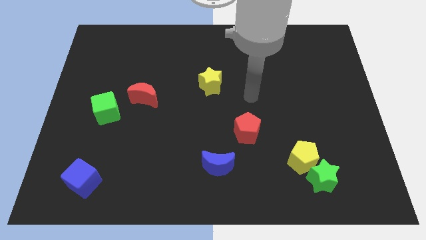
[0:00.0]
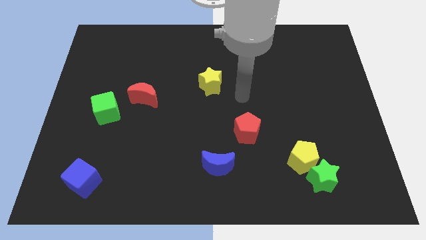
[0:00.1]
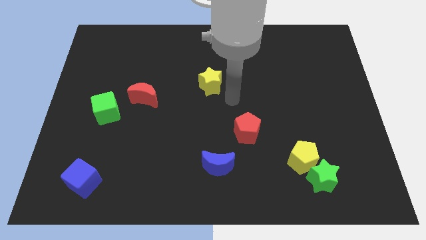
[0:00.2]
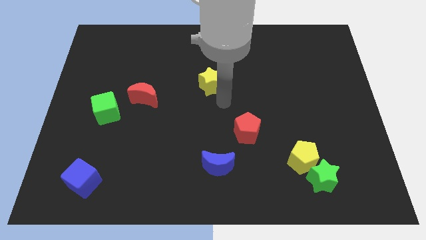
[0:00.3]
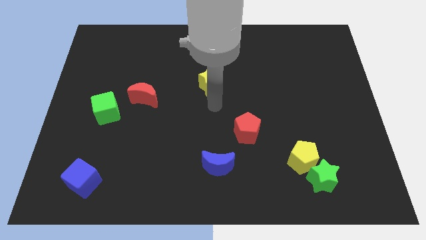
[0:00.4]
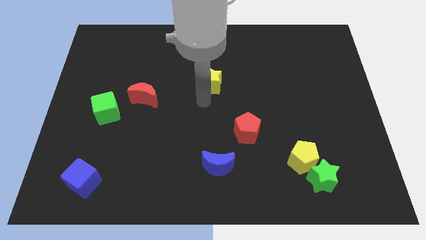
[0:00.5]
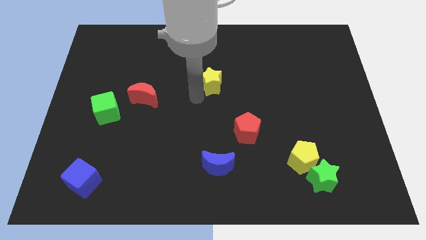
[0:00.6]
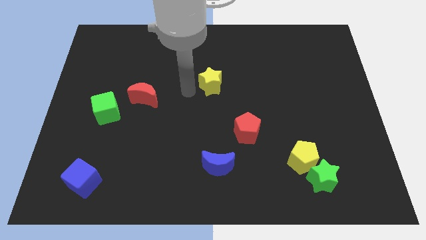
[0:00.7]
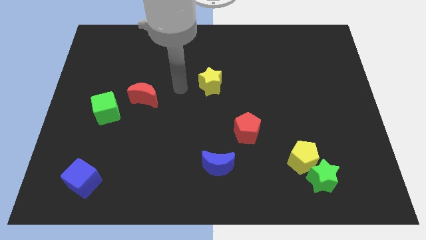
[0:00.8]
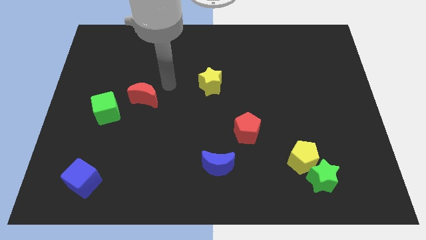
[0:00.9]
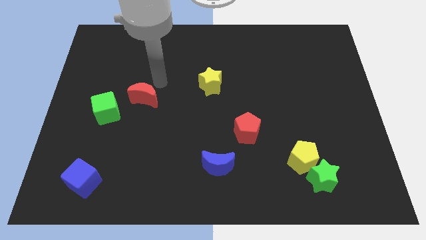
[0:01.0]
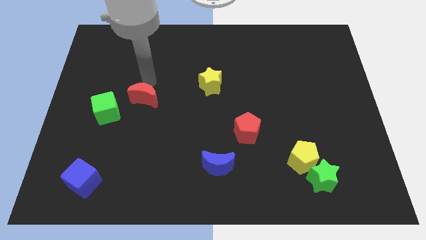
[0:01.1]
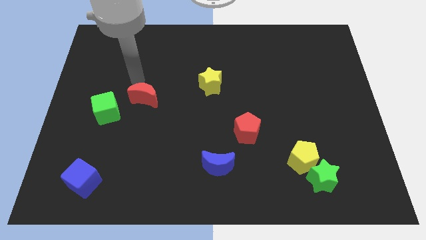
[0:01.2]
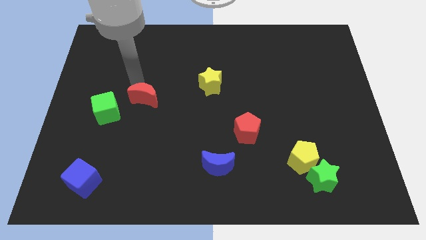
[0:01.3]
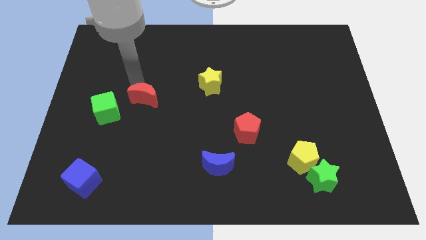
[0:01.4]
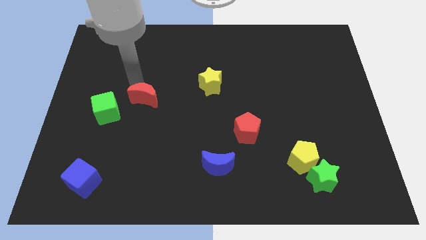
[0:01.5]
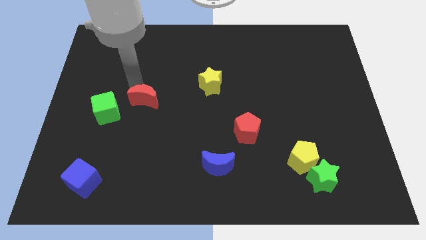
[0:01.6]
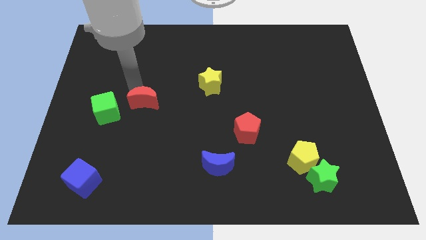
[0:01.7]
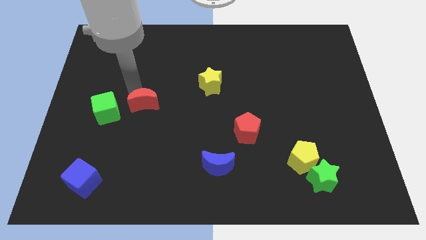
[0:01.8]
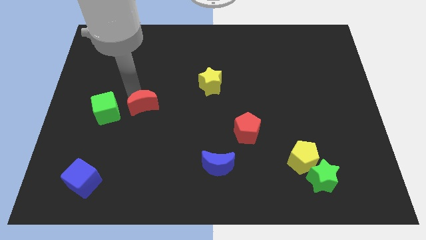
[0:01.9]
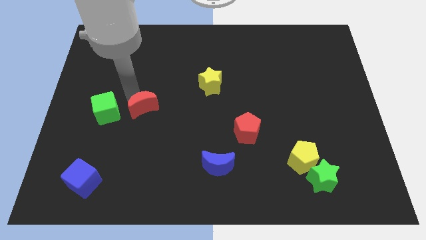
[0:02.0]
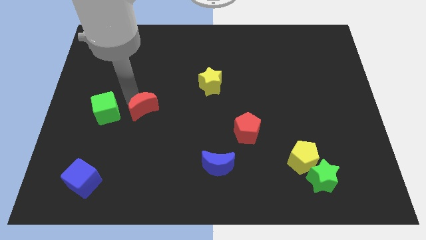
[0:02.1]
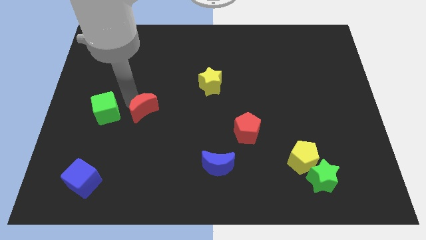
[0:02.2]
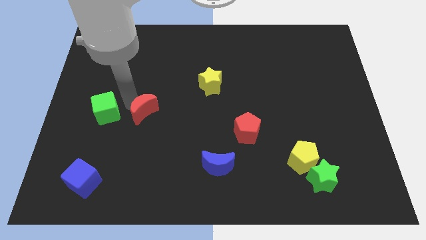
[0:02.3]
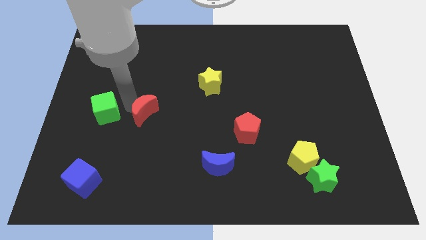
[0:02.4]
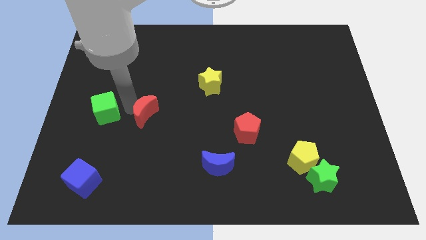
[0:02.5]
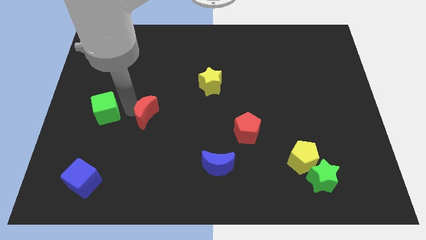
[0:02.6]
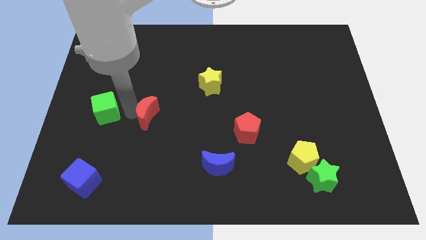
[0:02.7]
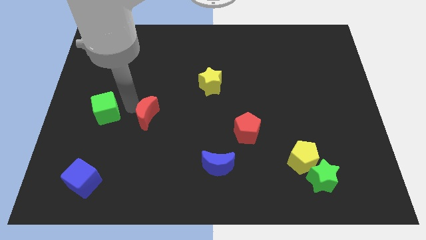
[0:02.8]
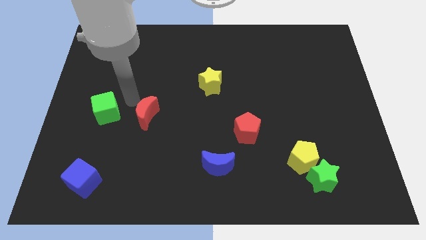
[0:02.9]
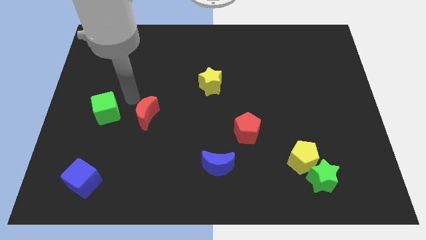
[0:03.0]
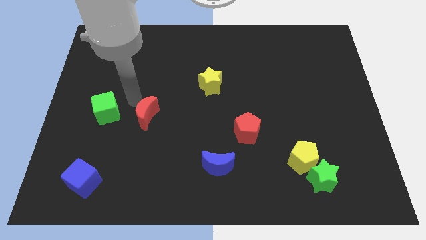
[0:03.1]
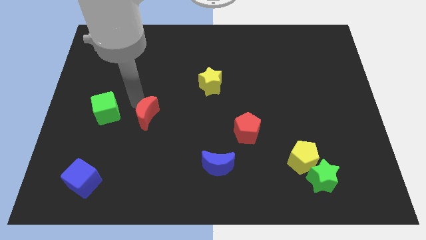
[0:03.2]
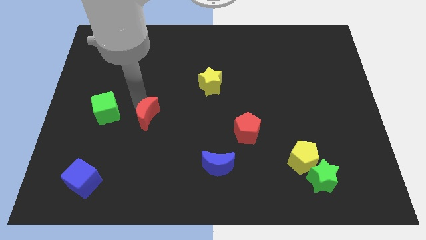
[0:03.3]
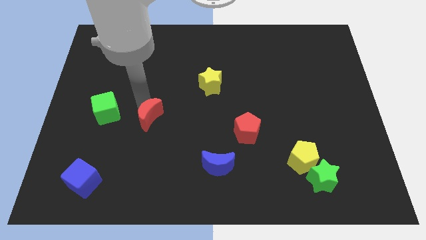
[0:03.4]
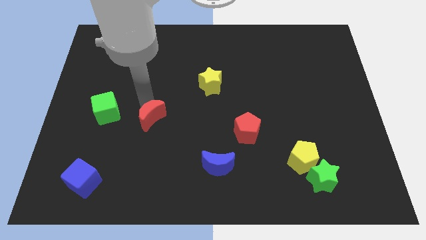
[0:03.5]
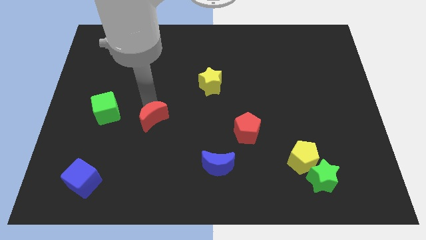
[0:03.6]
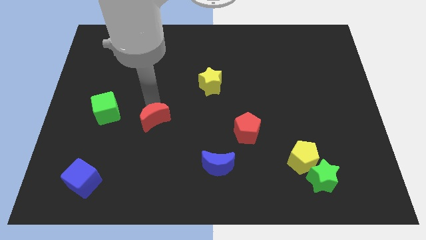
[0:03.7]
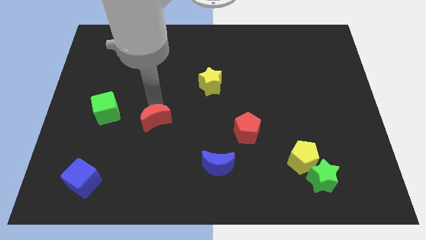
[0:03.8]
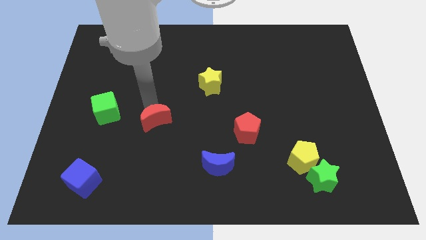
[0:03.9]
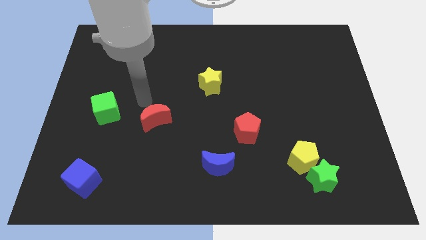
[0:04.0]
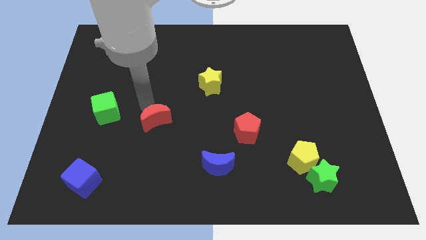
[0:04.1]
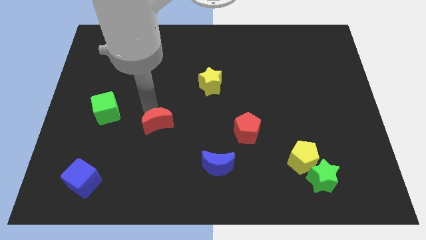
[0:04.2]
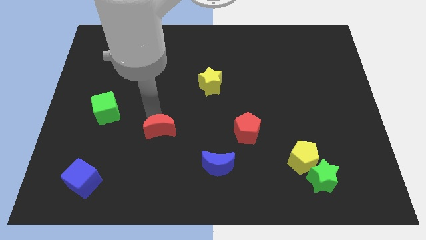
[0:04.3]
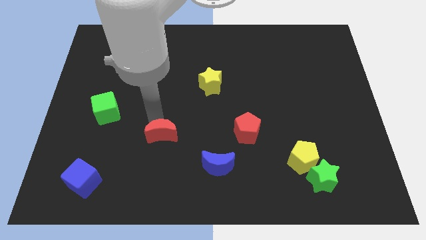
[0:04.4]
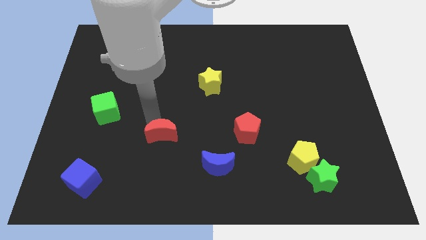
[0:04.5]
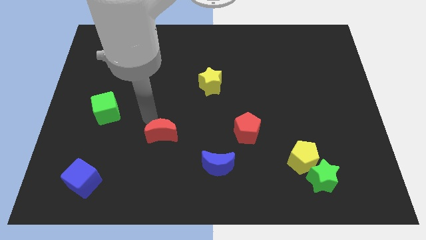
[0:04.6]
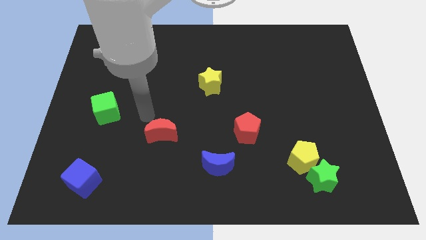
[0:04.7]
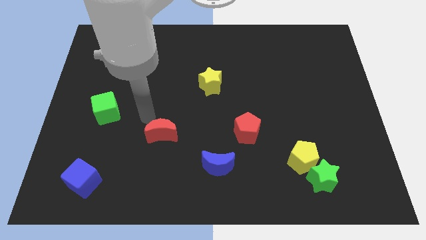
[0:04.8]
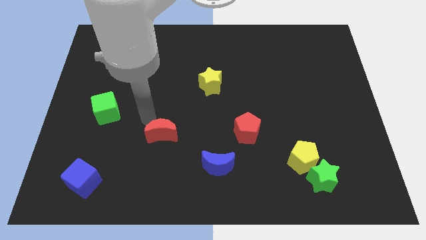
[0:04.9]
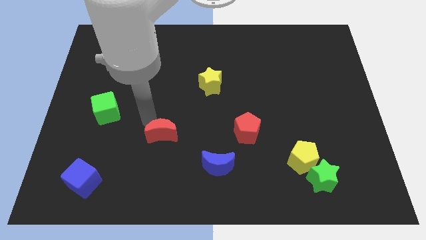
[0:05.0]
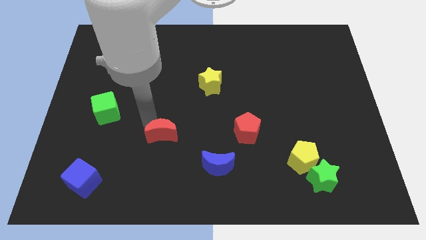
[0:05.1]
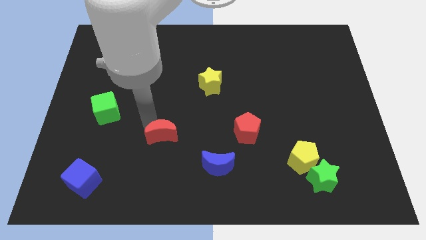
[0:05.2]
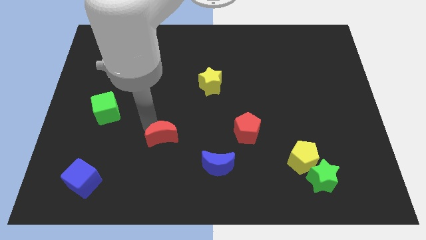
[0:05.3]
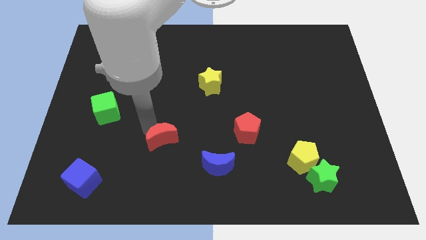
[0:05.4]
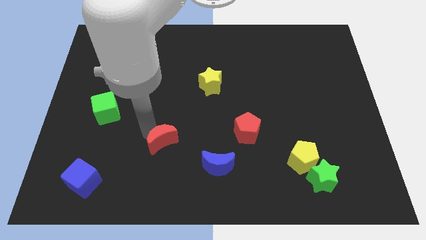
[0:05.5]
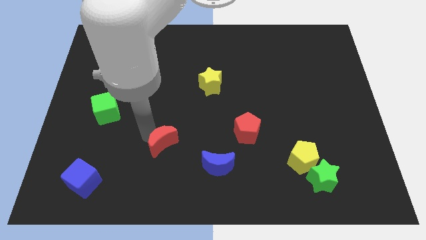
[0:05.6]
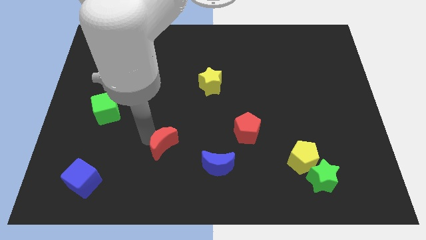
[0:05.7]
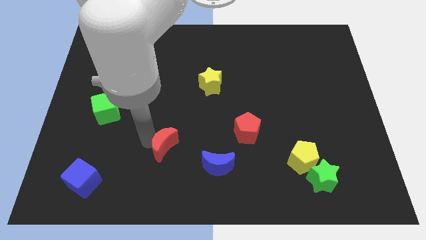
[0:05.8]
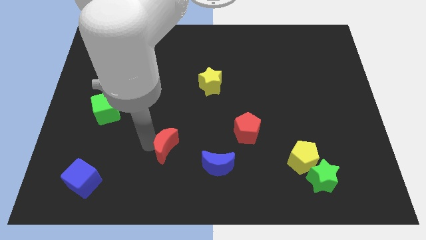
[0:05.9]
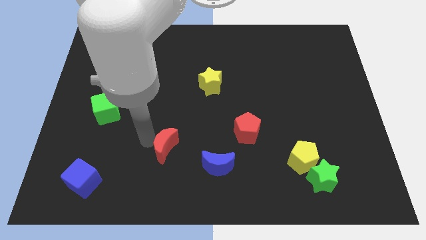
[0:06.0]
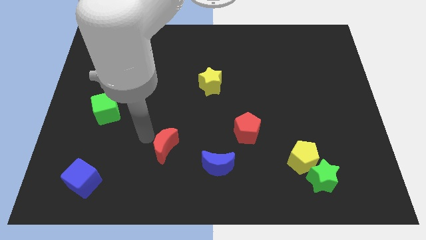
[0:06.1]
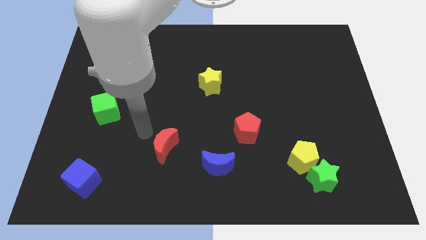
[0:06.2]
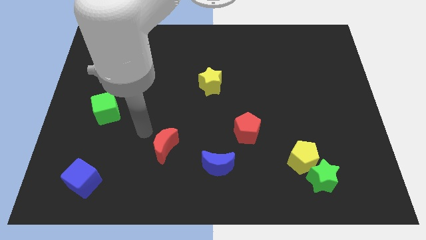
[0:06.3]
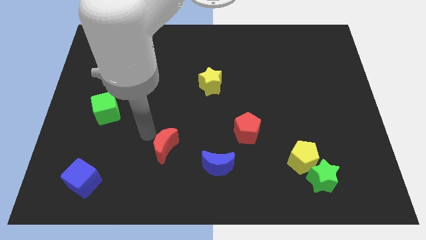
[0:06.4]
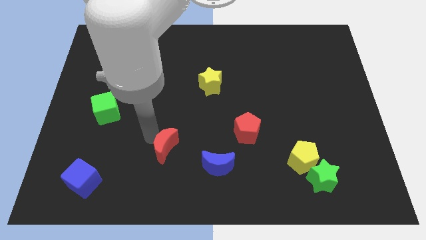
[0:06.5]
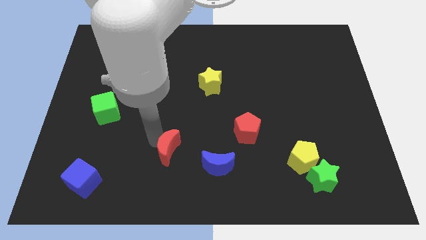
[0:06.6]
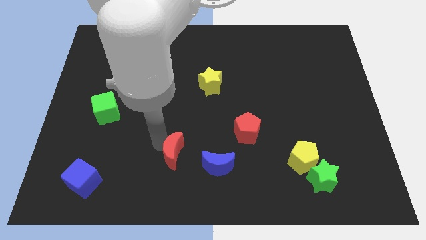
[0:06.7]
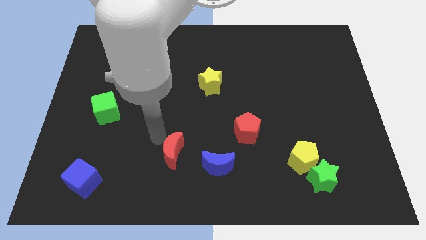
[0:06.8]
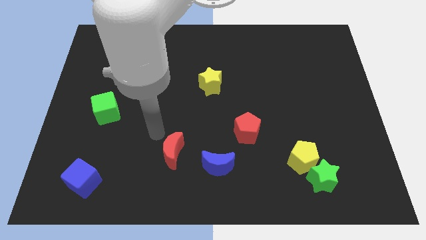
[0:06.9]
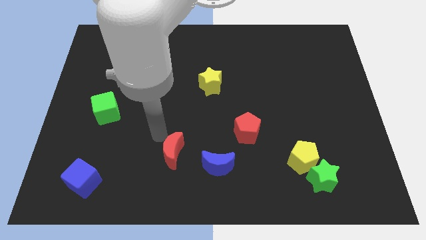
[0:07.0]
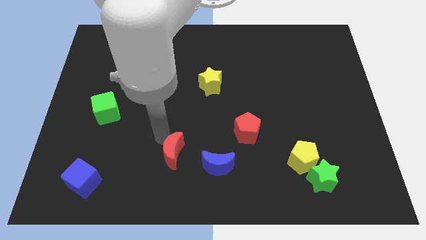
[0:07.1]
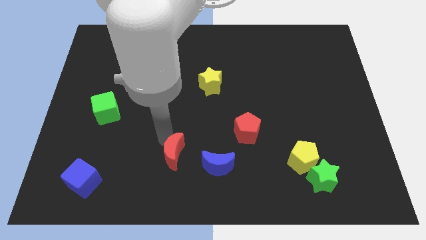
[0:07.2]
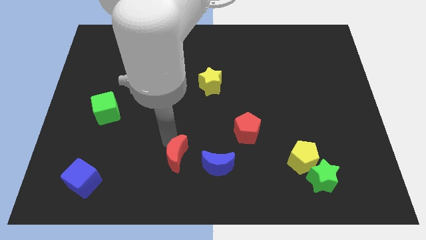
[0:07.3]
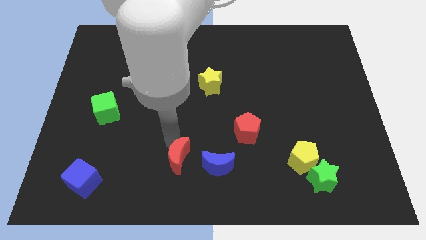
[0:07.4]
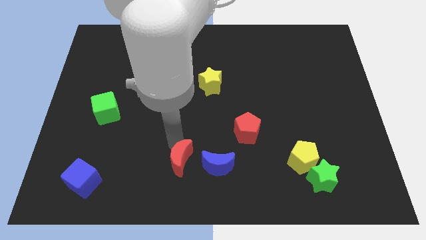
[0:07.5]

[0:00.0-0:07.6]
slide the red moon to the bottom side

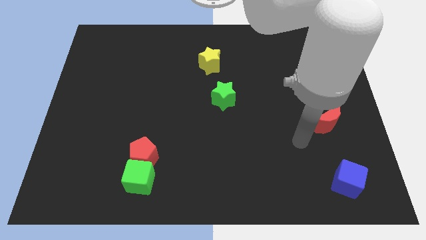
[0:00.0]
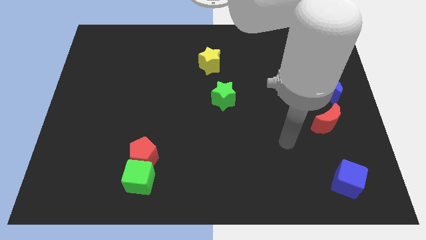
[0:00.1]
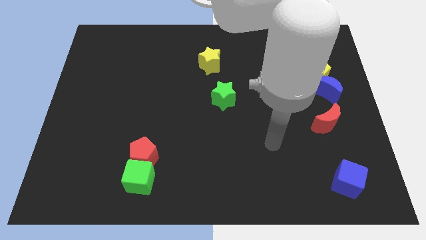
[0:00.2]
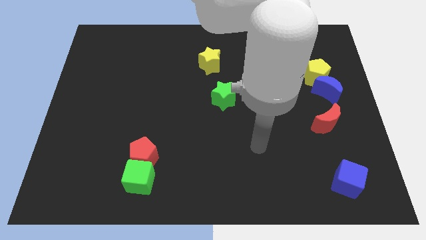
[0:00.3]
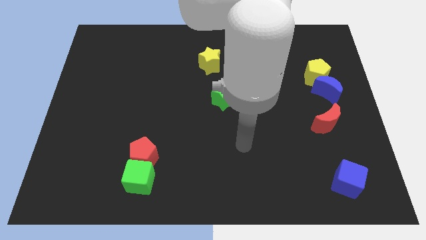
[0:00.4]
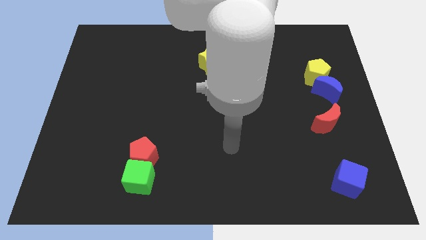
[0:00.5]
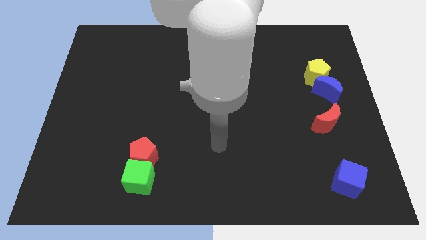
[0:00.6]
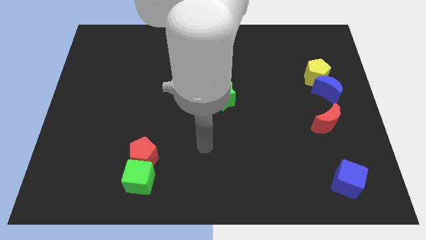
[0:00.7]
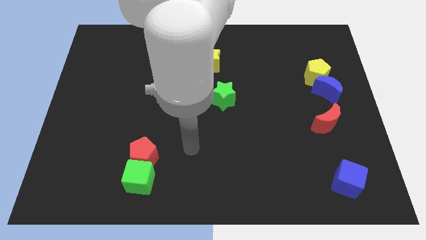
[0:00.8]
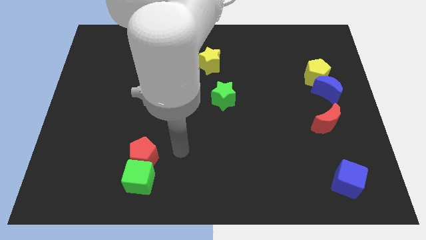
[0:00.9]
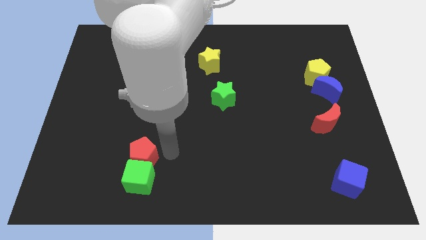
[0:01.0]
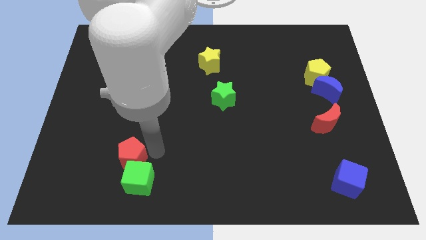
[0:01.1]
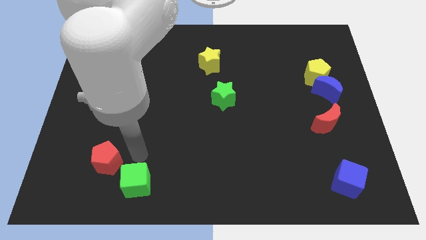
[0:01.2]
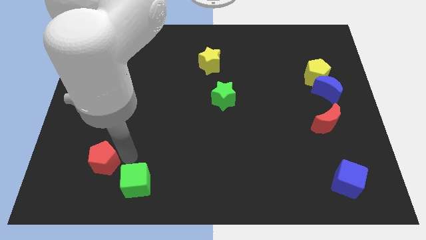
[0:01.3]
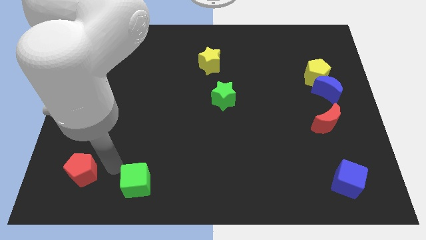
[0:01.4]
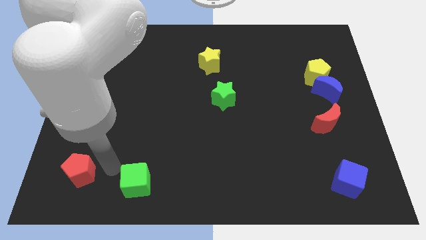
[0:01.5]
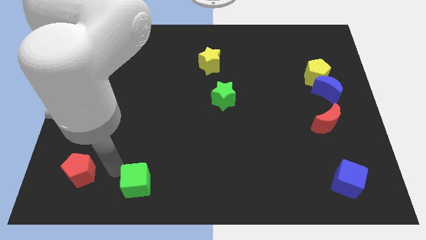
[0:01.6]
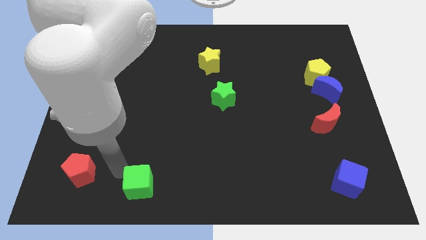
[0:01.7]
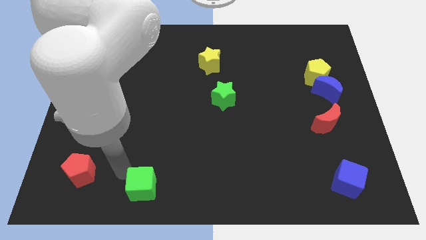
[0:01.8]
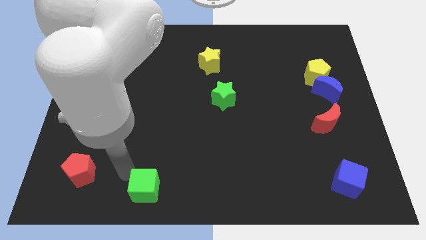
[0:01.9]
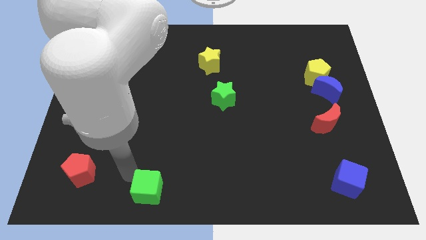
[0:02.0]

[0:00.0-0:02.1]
push the green cube to the bottom side
